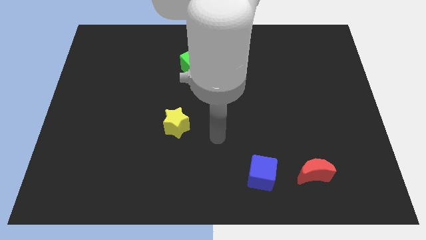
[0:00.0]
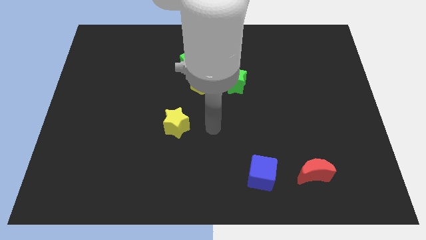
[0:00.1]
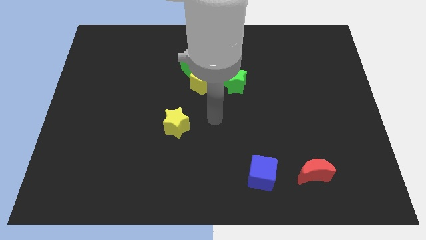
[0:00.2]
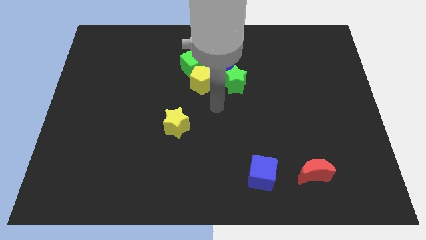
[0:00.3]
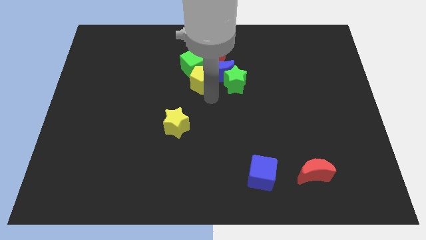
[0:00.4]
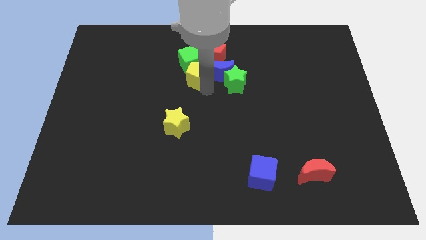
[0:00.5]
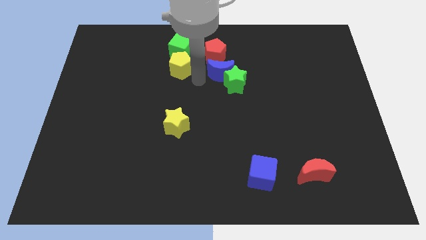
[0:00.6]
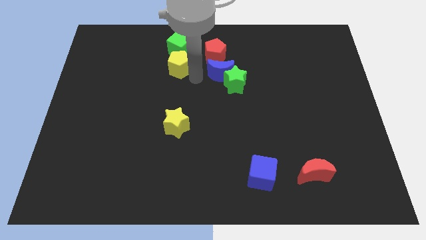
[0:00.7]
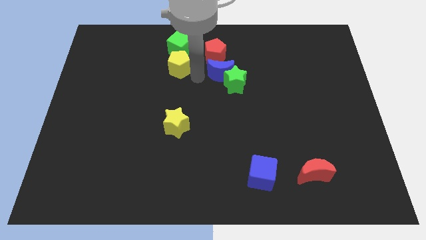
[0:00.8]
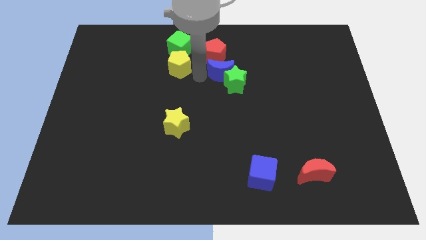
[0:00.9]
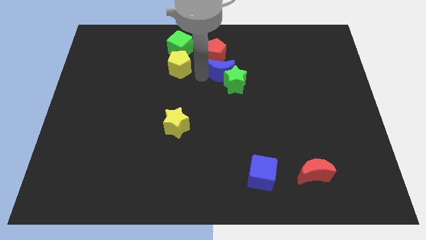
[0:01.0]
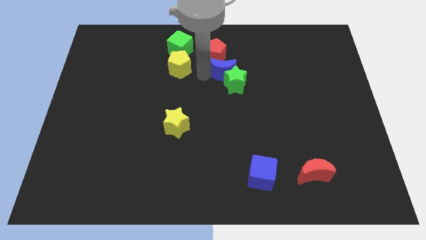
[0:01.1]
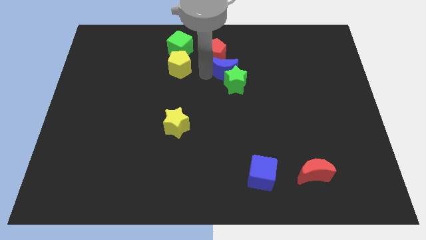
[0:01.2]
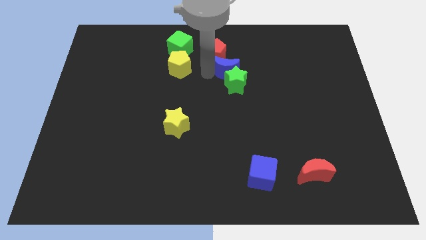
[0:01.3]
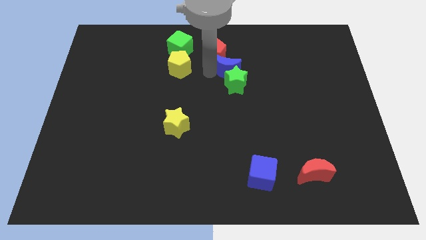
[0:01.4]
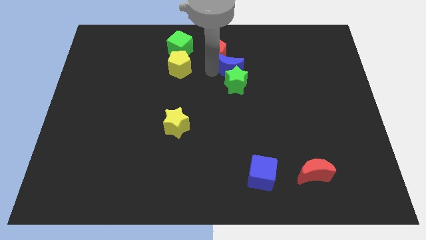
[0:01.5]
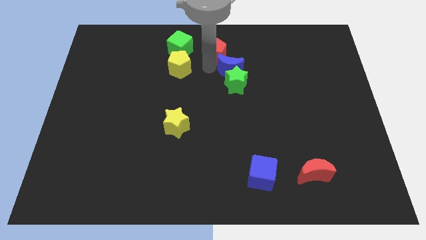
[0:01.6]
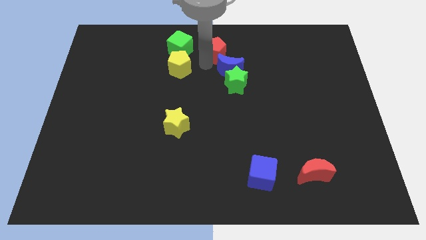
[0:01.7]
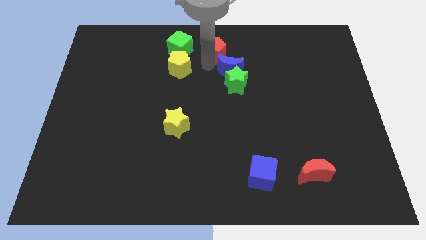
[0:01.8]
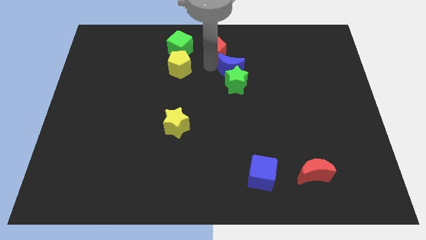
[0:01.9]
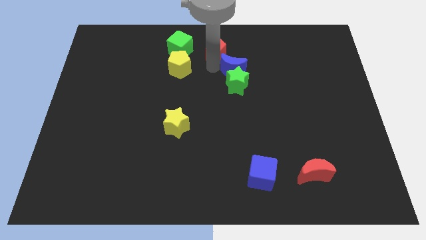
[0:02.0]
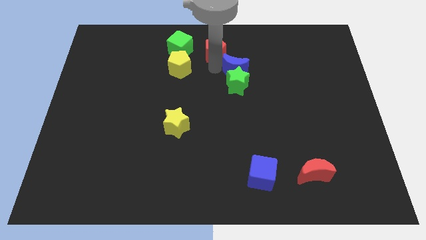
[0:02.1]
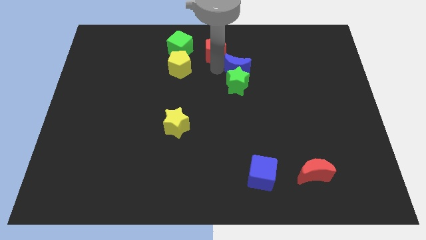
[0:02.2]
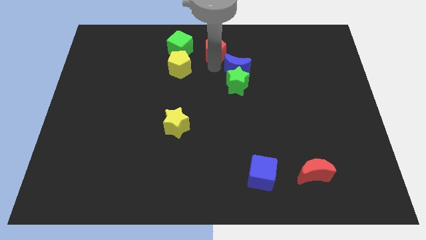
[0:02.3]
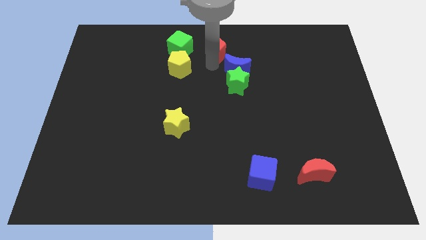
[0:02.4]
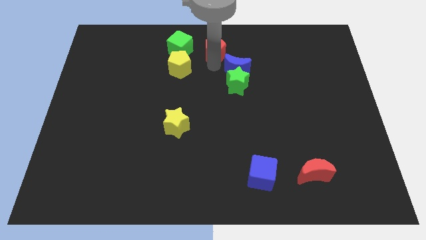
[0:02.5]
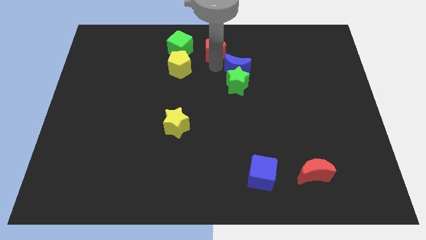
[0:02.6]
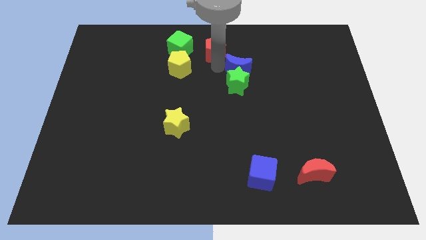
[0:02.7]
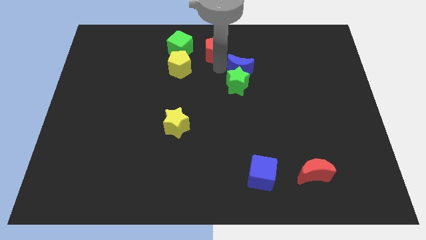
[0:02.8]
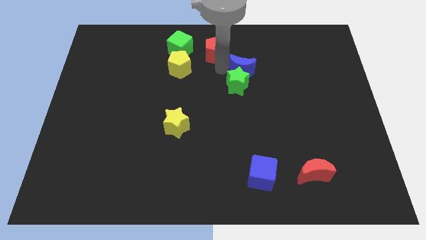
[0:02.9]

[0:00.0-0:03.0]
move the blue moon away from the group

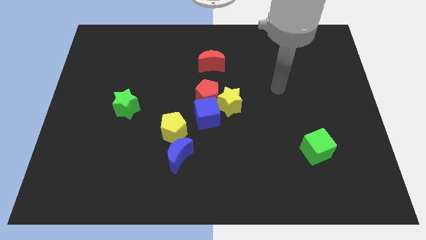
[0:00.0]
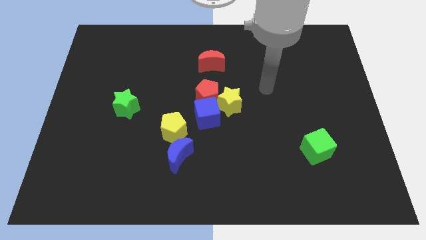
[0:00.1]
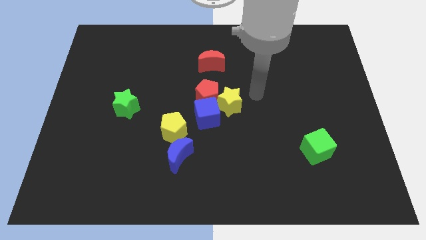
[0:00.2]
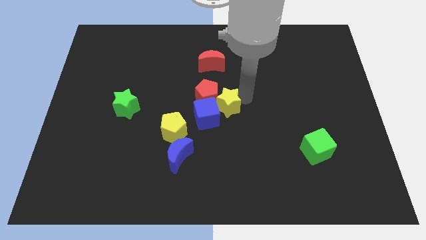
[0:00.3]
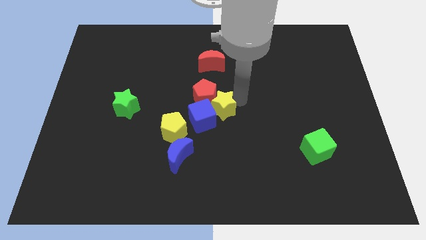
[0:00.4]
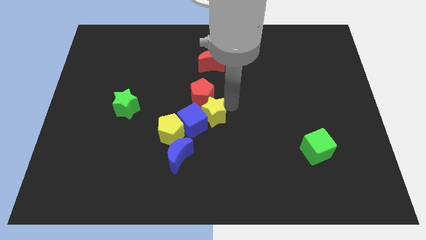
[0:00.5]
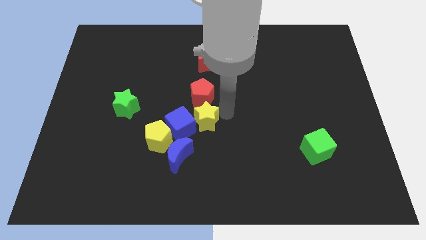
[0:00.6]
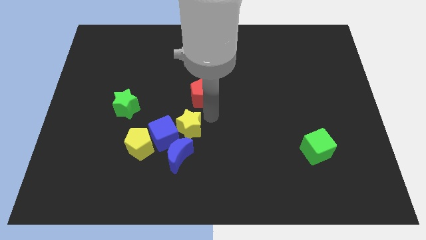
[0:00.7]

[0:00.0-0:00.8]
move the red pentagon away from the yellow star and blue cube

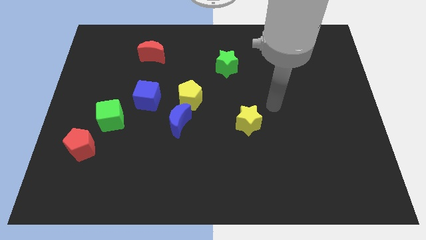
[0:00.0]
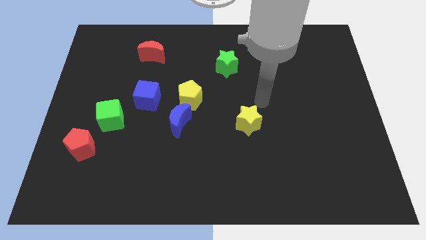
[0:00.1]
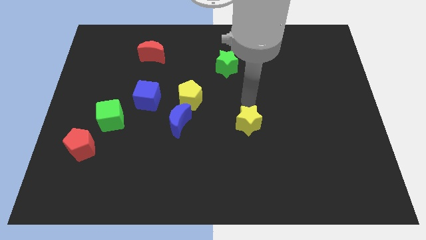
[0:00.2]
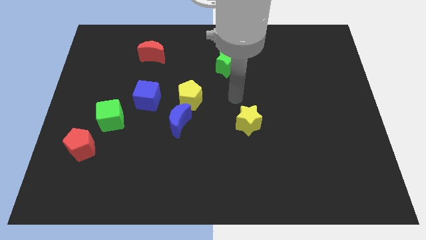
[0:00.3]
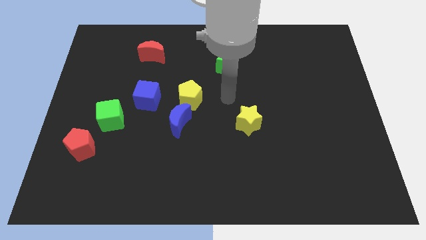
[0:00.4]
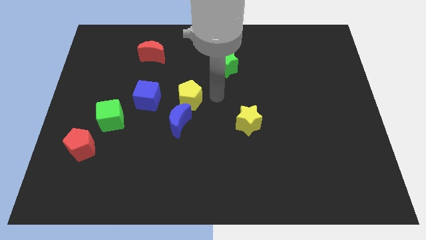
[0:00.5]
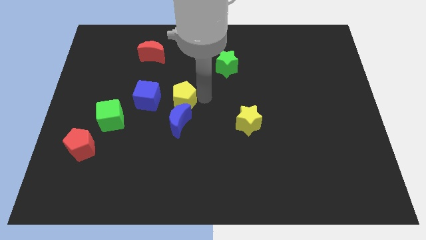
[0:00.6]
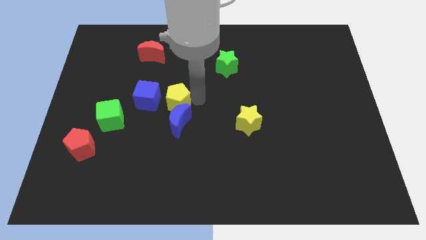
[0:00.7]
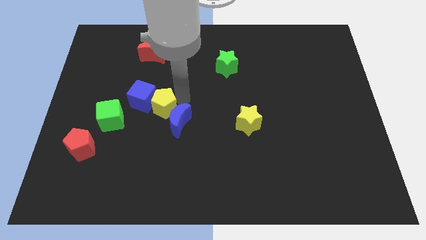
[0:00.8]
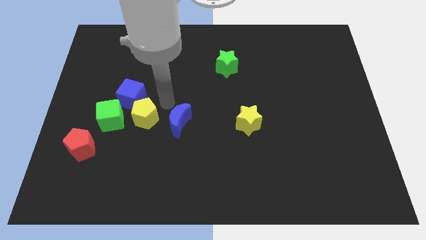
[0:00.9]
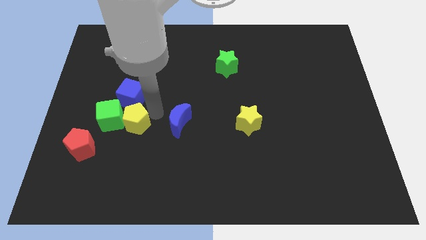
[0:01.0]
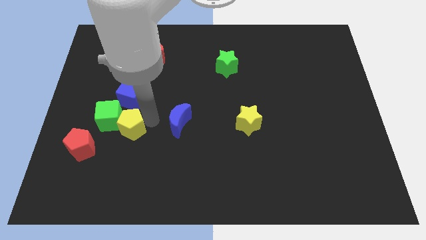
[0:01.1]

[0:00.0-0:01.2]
pull the blue moon apart from the yellow pentagon

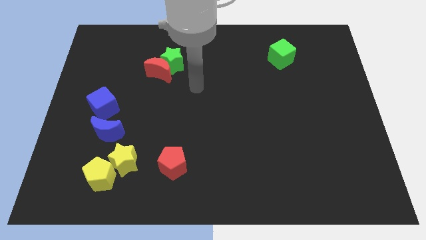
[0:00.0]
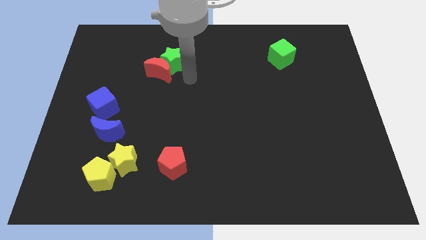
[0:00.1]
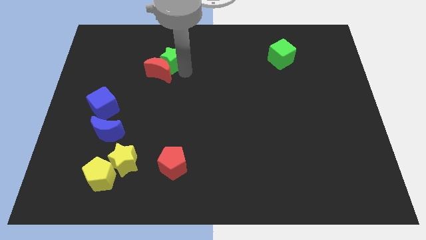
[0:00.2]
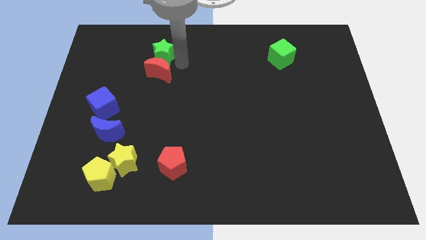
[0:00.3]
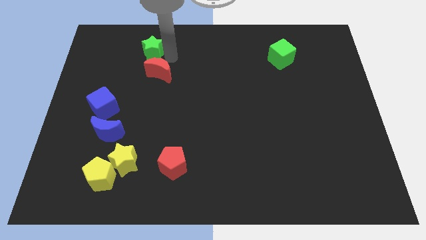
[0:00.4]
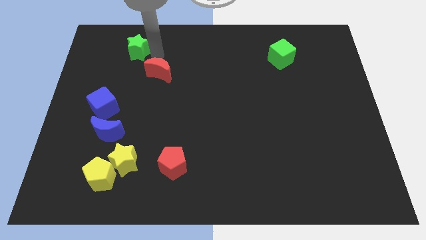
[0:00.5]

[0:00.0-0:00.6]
separate the red moon from the green star

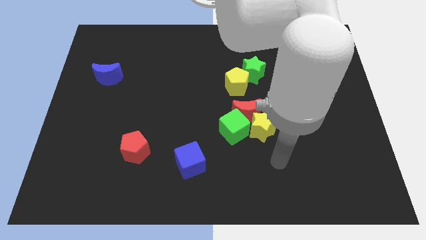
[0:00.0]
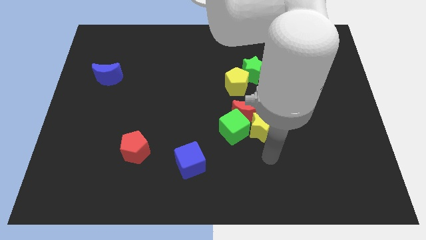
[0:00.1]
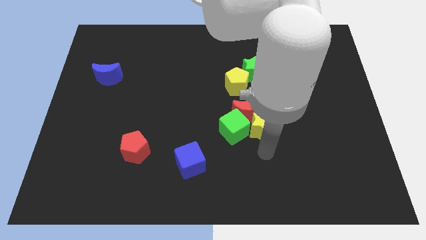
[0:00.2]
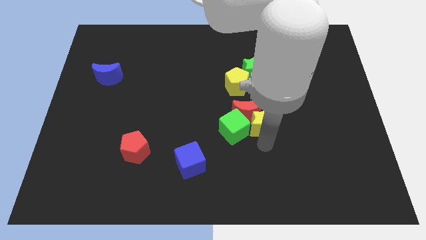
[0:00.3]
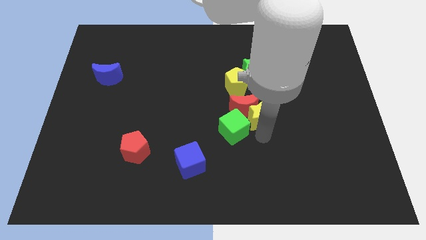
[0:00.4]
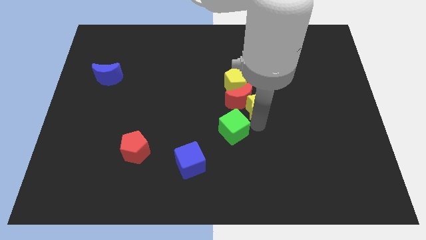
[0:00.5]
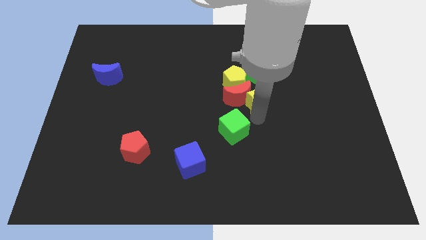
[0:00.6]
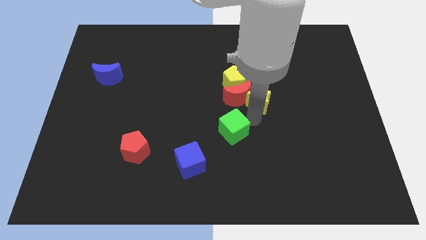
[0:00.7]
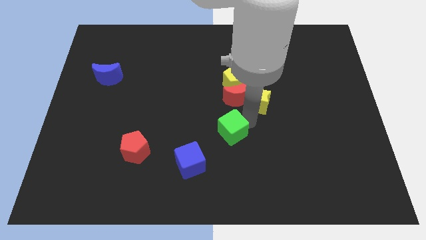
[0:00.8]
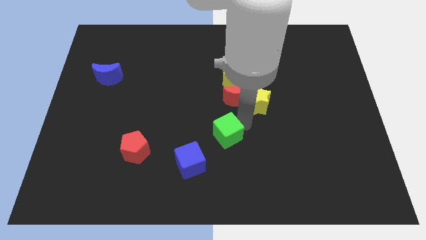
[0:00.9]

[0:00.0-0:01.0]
move the green cube away from the red moon and yellow star

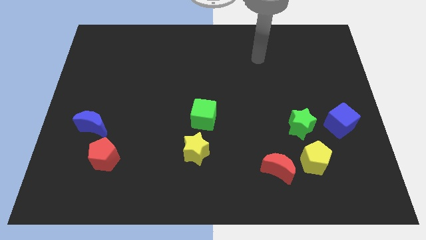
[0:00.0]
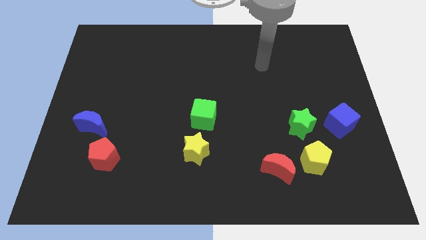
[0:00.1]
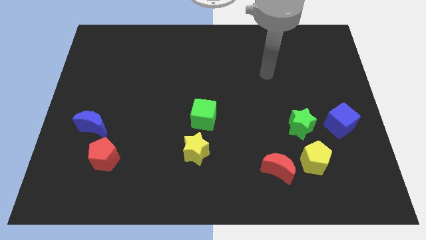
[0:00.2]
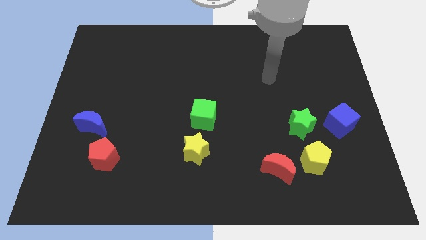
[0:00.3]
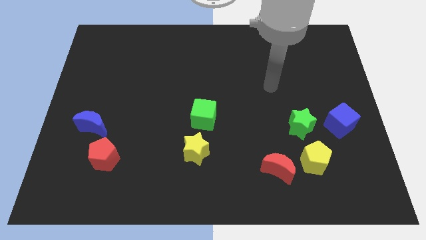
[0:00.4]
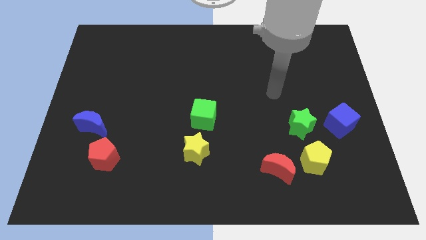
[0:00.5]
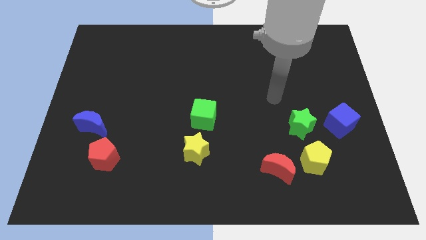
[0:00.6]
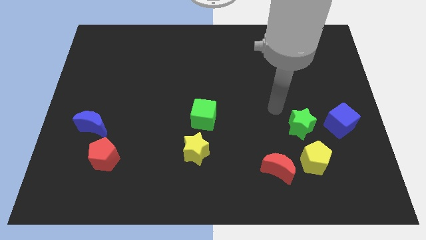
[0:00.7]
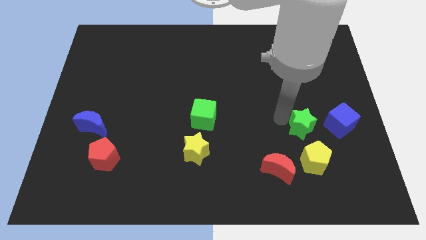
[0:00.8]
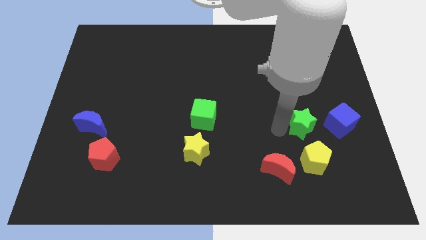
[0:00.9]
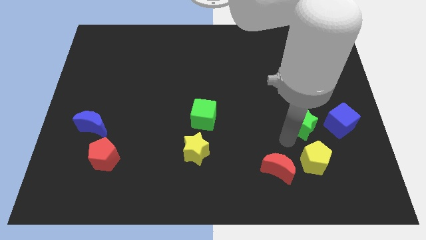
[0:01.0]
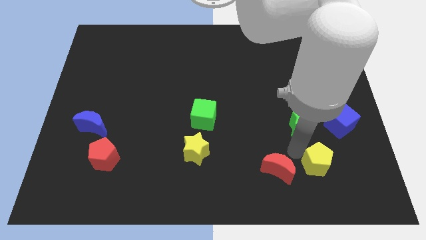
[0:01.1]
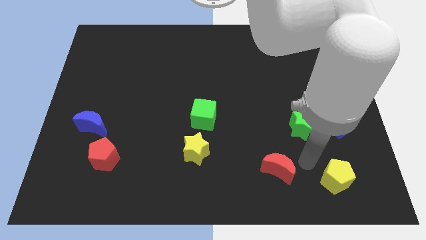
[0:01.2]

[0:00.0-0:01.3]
move the red moon away from the yellow pentagon

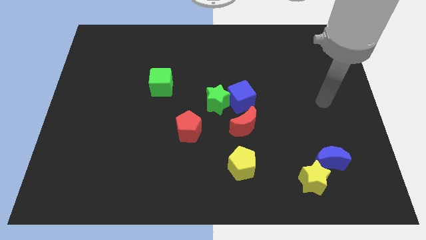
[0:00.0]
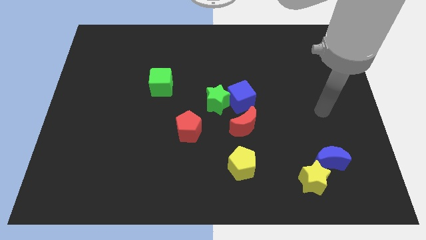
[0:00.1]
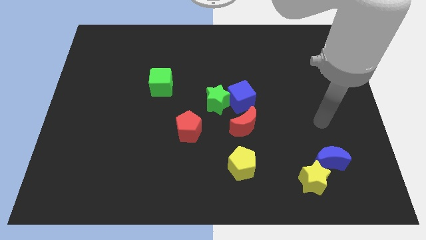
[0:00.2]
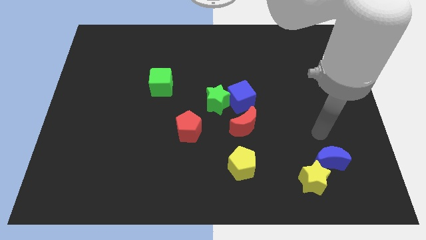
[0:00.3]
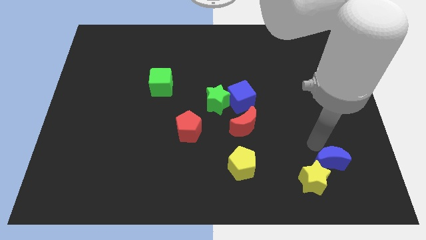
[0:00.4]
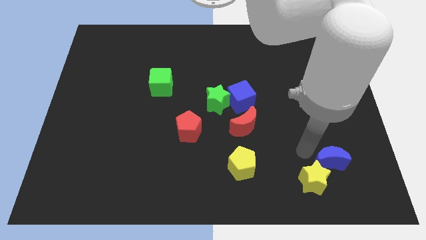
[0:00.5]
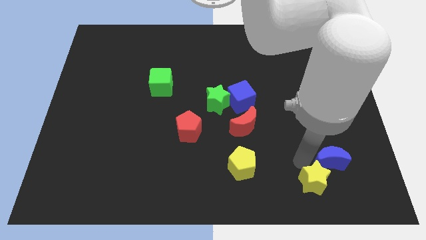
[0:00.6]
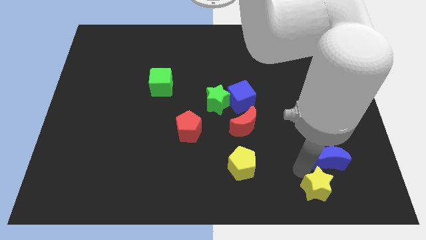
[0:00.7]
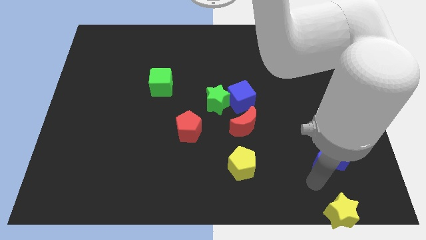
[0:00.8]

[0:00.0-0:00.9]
pull the blue moon apart from the yellow star

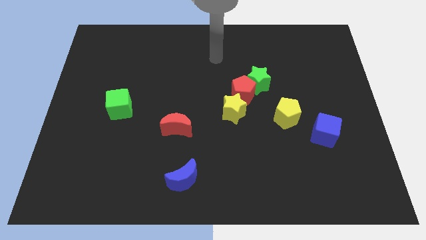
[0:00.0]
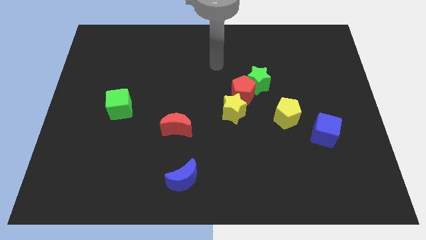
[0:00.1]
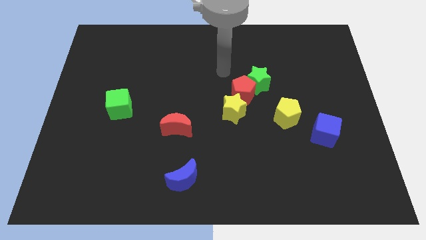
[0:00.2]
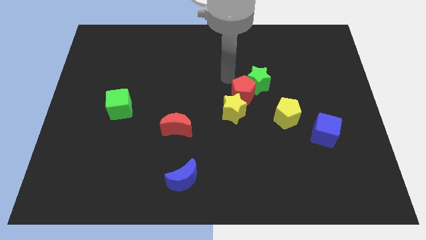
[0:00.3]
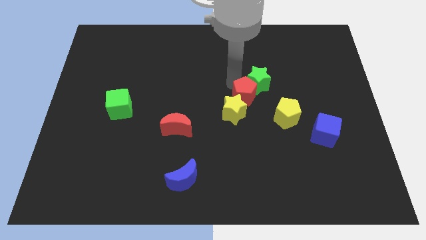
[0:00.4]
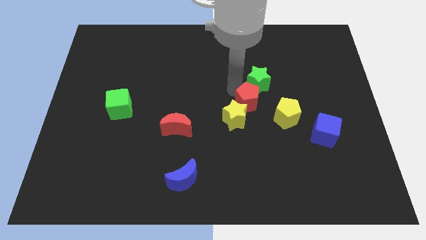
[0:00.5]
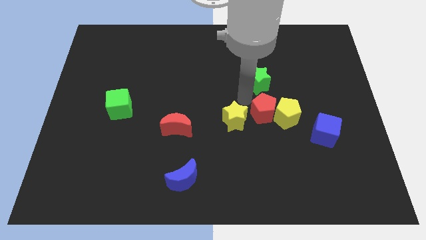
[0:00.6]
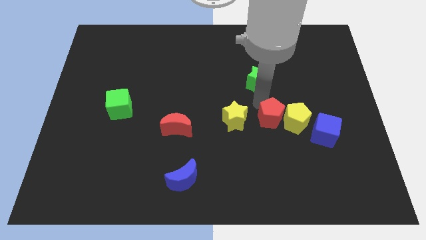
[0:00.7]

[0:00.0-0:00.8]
move the green star away from the red pentagon
